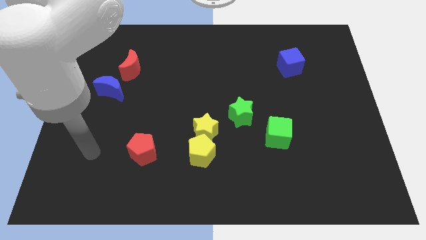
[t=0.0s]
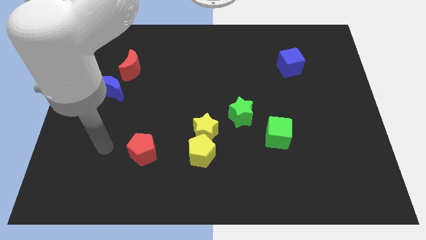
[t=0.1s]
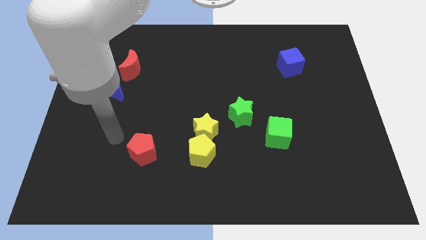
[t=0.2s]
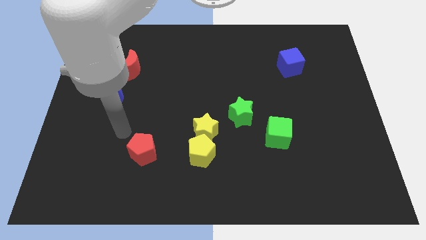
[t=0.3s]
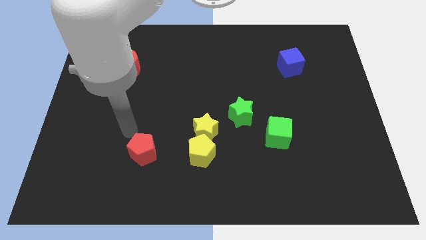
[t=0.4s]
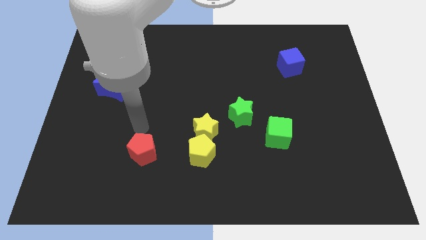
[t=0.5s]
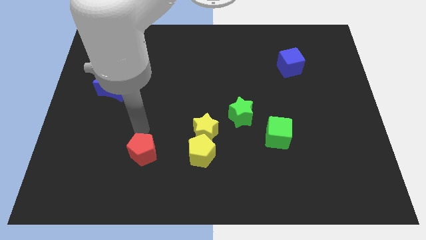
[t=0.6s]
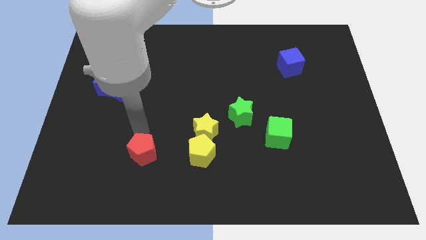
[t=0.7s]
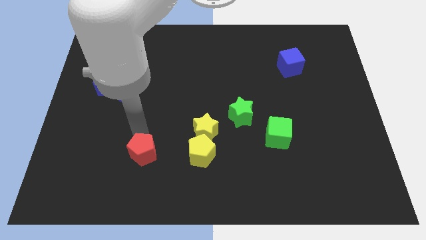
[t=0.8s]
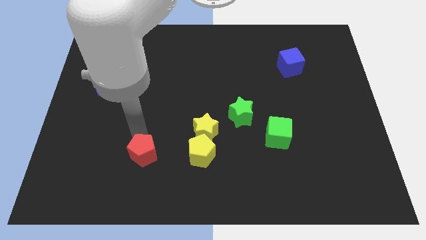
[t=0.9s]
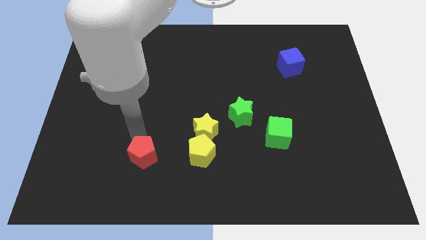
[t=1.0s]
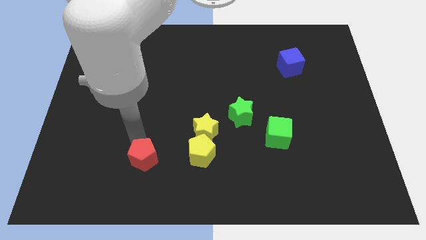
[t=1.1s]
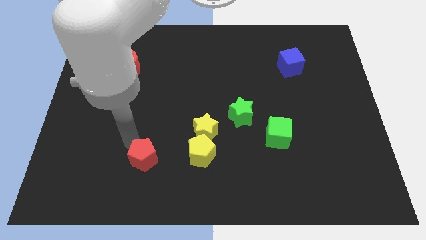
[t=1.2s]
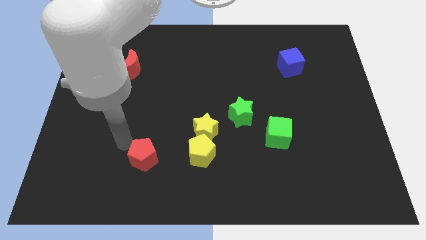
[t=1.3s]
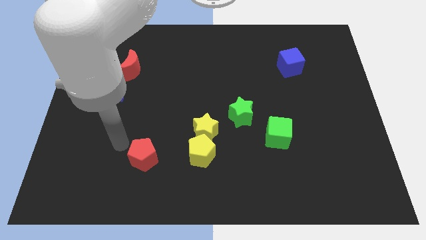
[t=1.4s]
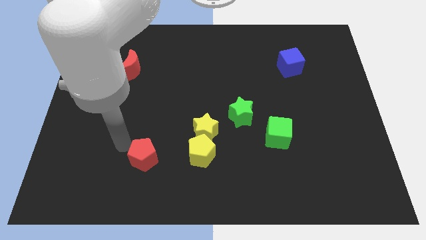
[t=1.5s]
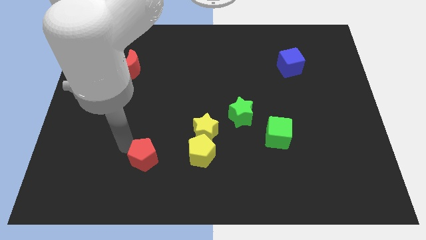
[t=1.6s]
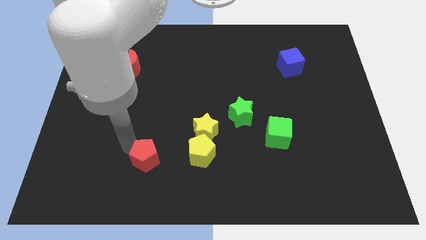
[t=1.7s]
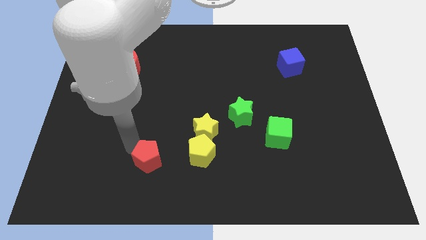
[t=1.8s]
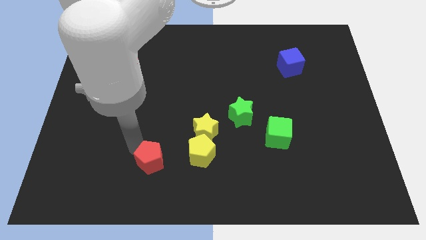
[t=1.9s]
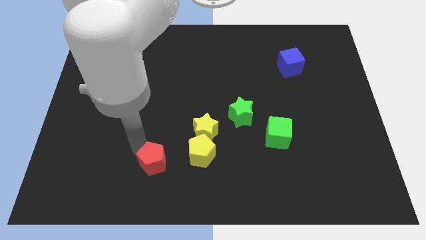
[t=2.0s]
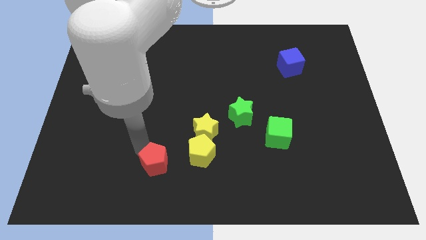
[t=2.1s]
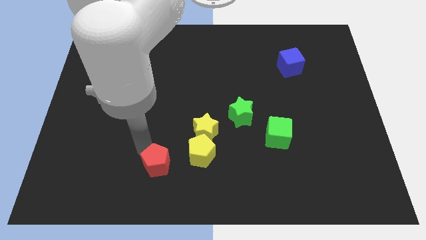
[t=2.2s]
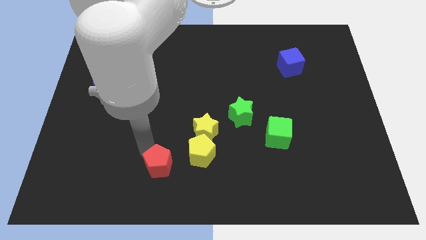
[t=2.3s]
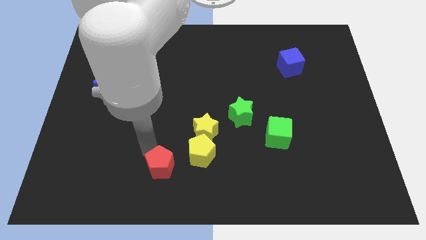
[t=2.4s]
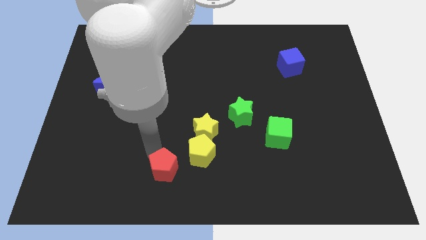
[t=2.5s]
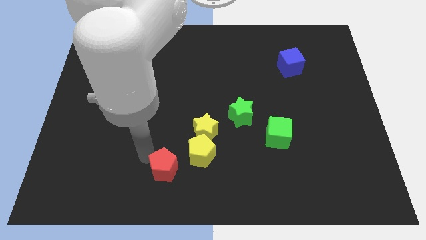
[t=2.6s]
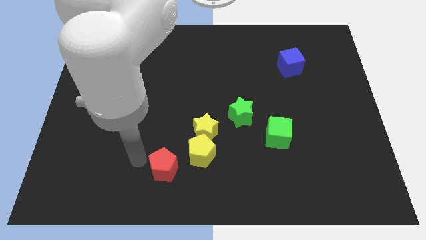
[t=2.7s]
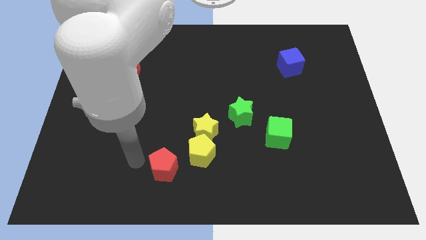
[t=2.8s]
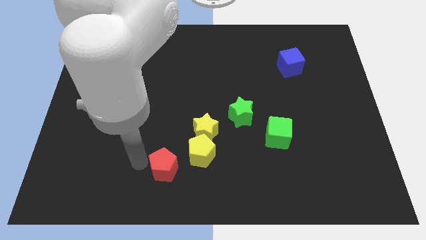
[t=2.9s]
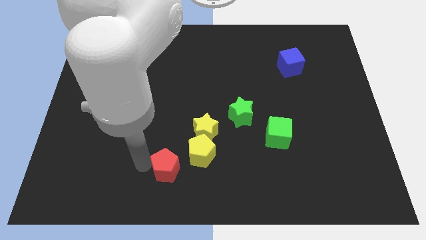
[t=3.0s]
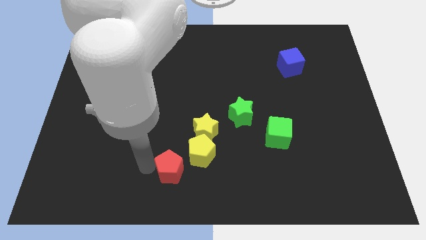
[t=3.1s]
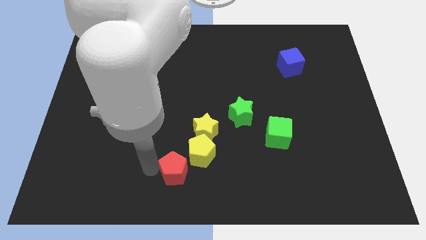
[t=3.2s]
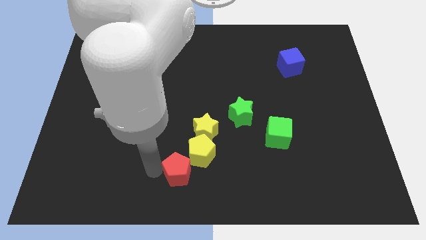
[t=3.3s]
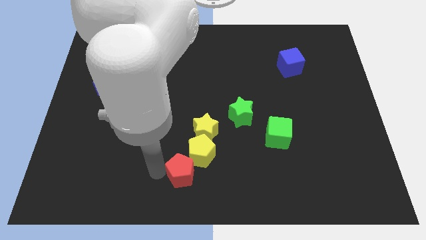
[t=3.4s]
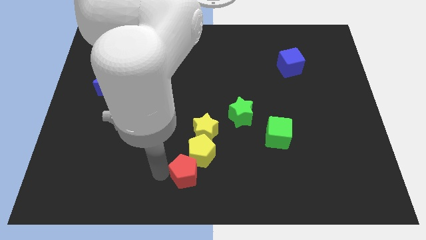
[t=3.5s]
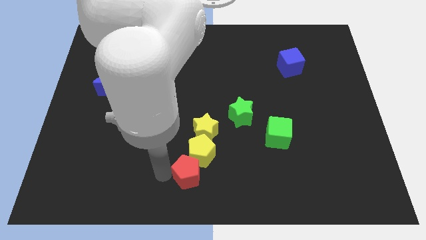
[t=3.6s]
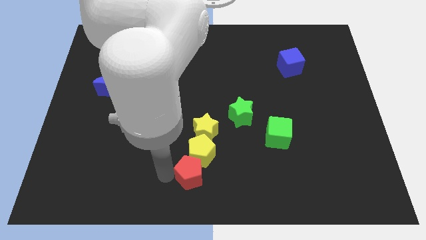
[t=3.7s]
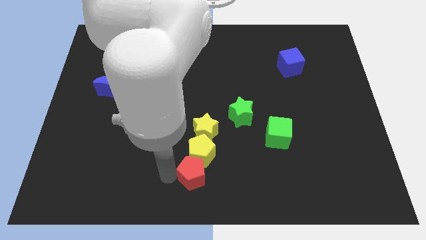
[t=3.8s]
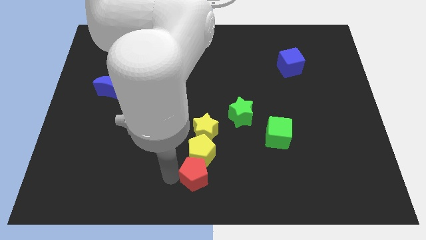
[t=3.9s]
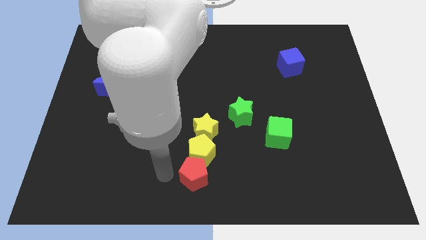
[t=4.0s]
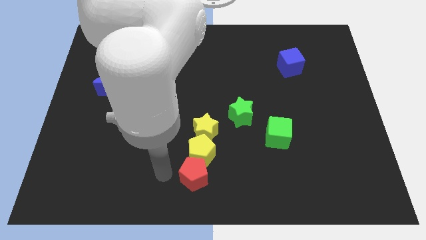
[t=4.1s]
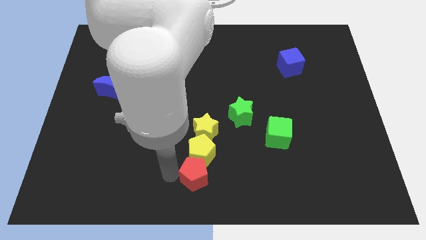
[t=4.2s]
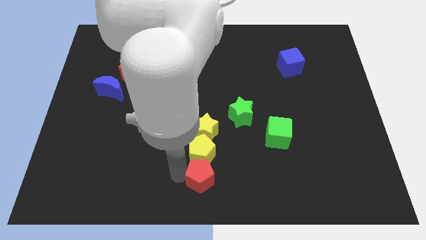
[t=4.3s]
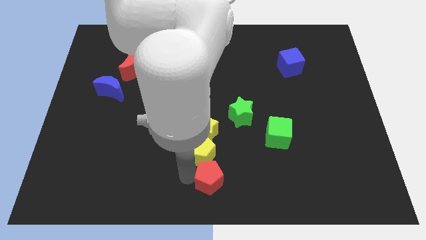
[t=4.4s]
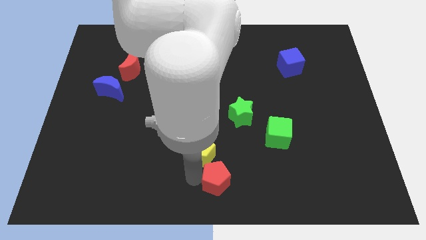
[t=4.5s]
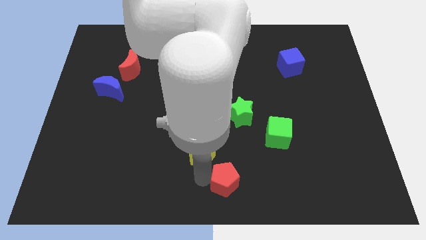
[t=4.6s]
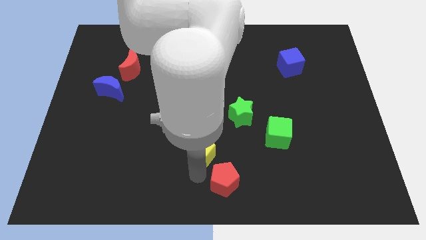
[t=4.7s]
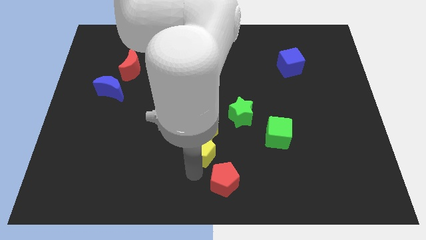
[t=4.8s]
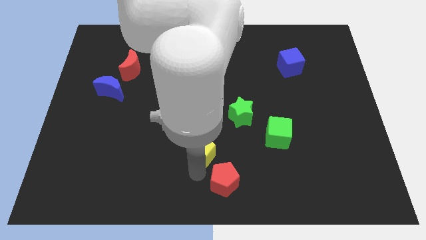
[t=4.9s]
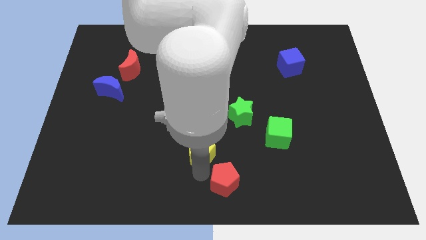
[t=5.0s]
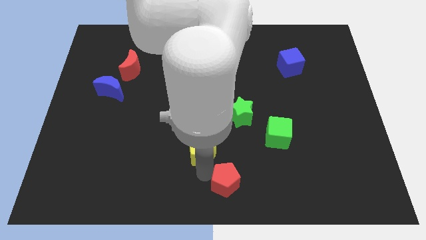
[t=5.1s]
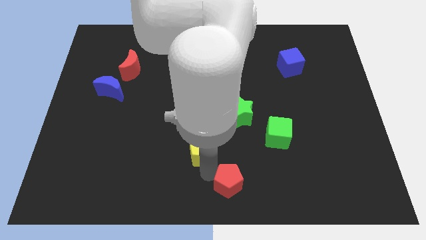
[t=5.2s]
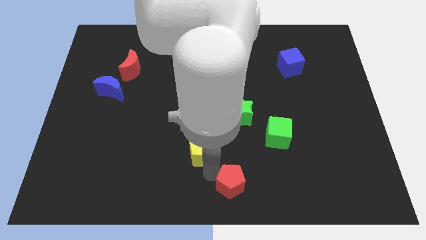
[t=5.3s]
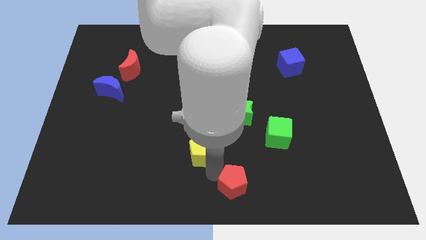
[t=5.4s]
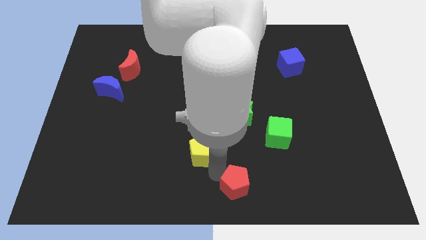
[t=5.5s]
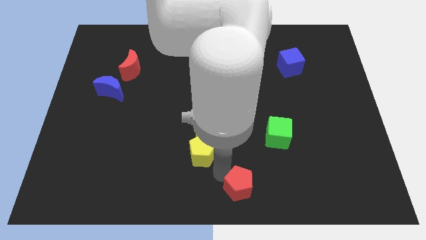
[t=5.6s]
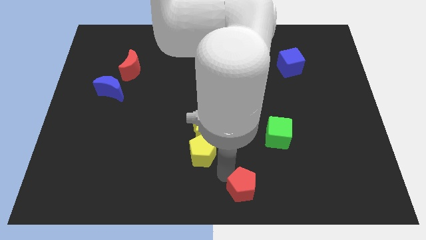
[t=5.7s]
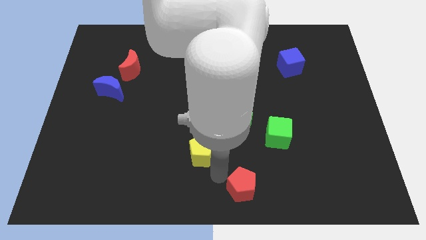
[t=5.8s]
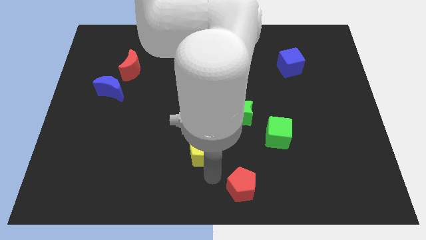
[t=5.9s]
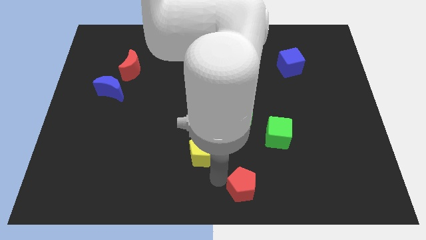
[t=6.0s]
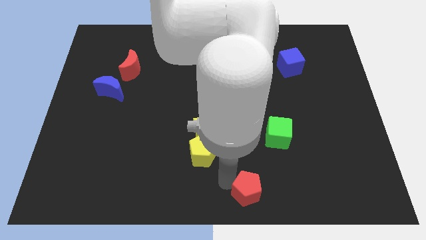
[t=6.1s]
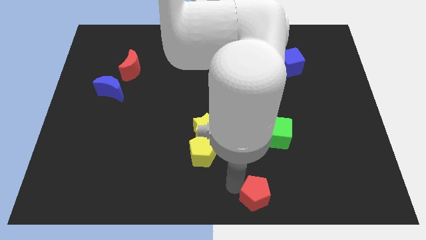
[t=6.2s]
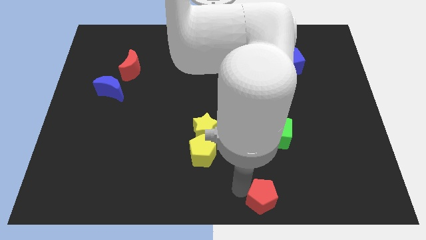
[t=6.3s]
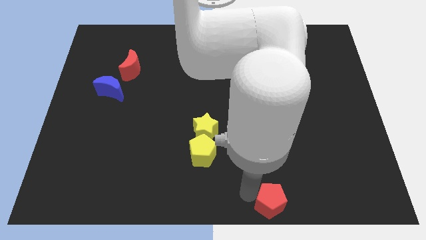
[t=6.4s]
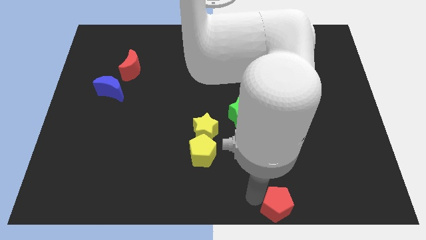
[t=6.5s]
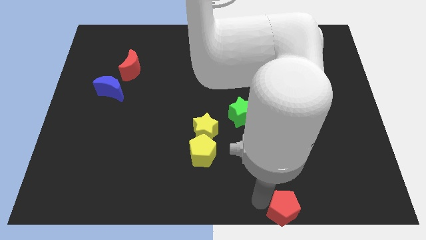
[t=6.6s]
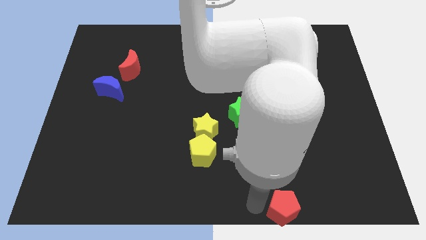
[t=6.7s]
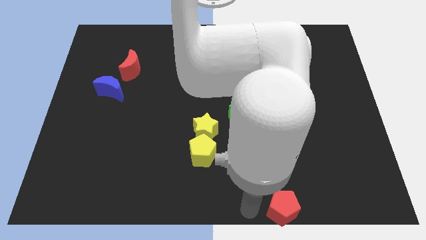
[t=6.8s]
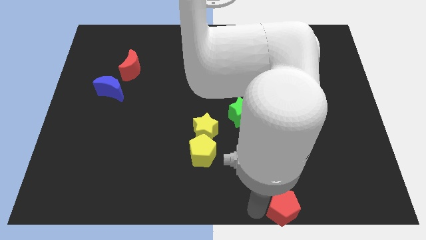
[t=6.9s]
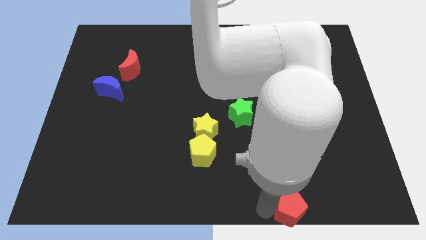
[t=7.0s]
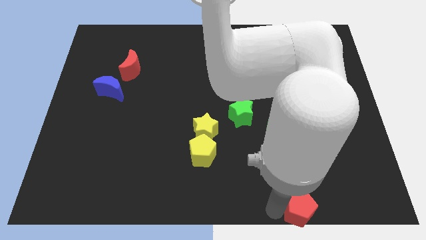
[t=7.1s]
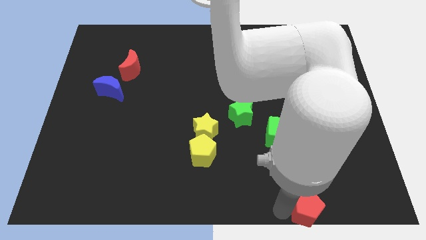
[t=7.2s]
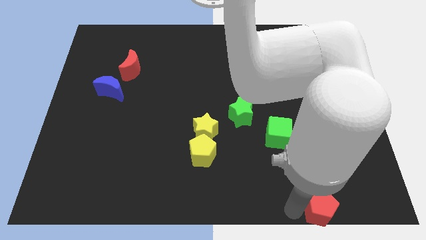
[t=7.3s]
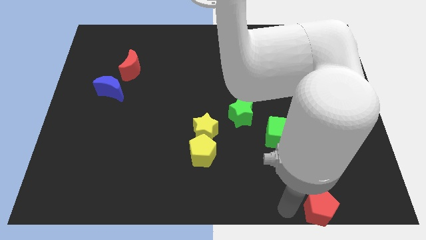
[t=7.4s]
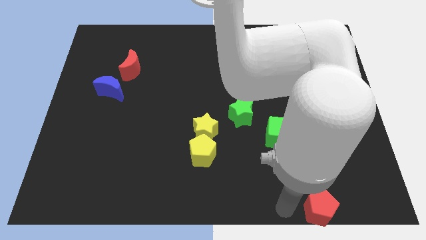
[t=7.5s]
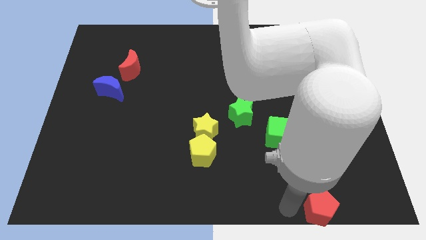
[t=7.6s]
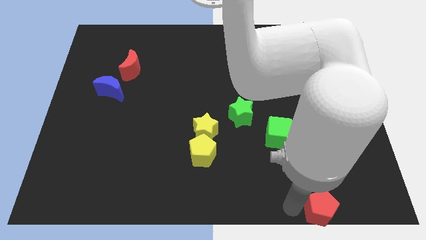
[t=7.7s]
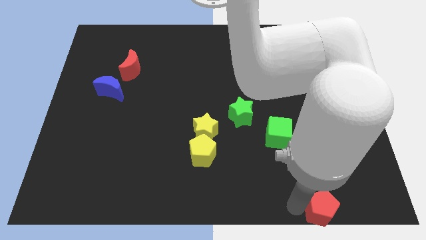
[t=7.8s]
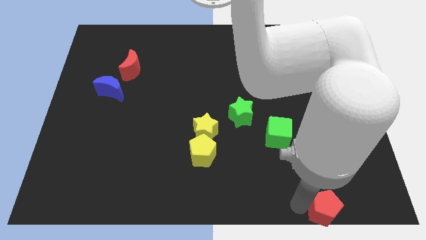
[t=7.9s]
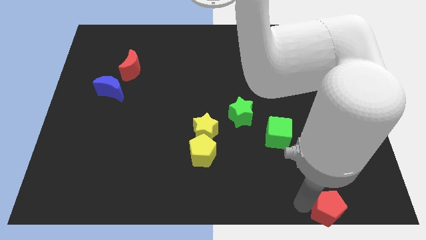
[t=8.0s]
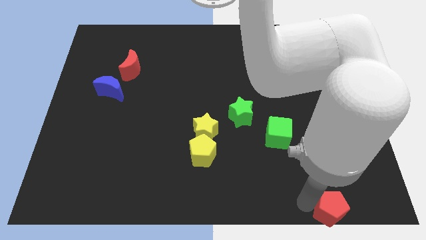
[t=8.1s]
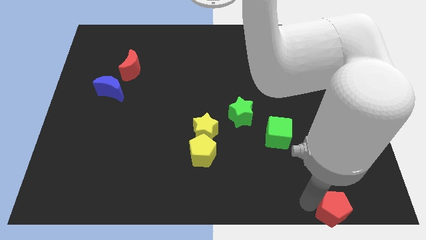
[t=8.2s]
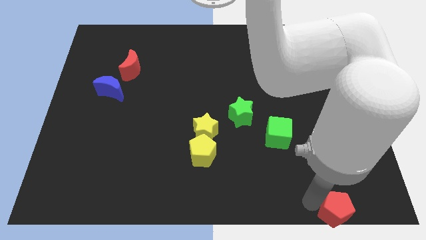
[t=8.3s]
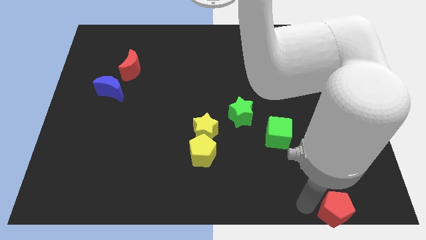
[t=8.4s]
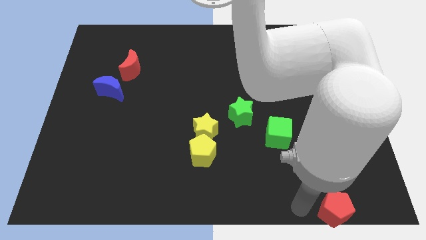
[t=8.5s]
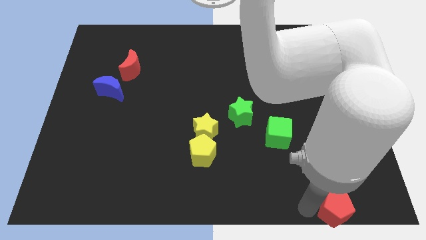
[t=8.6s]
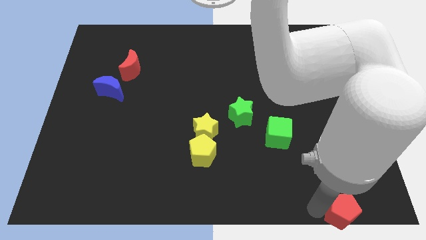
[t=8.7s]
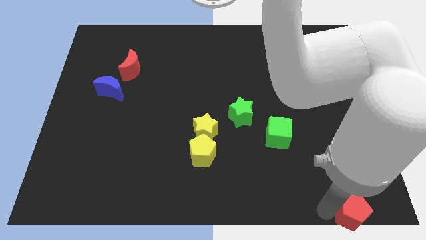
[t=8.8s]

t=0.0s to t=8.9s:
slide the red pentagon to the lower right corner
